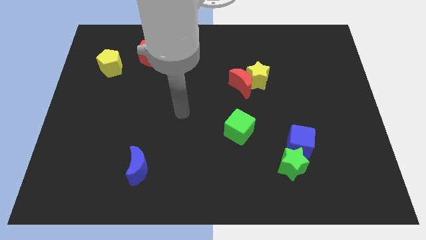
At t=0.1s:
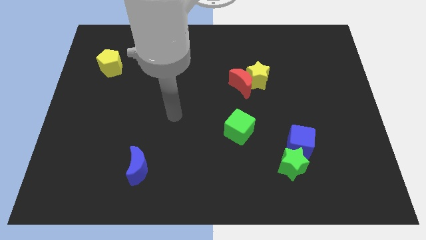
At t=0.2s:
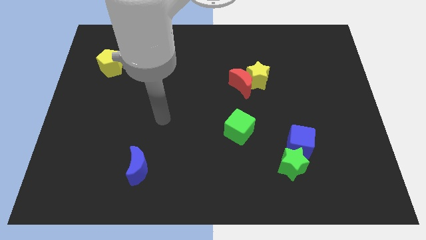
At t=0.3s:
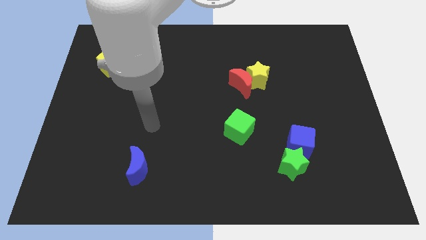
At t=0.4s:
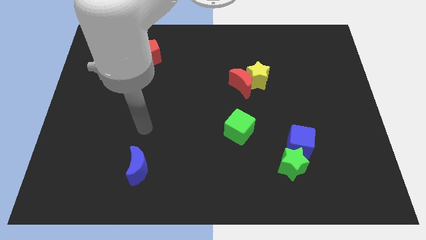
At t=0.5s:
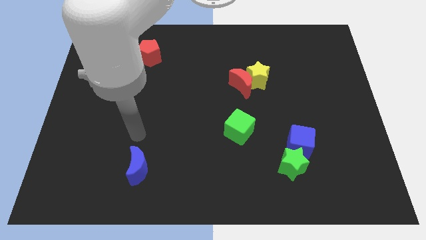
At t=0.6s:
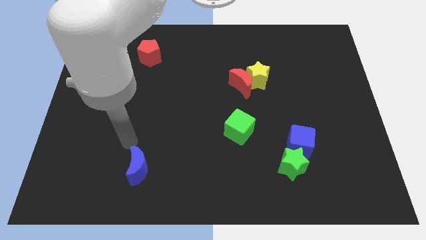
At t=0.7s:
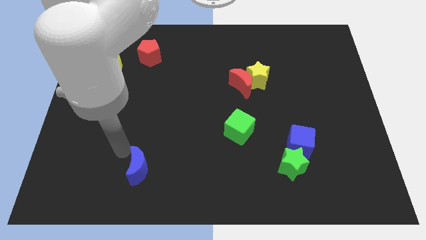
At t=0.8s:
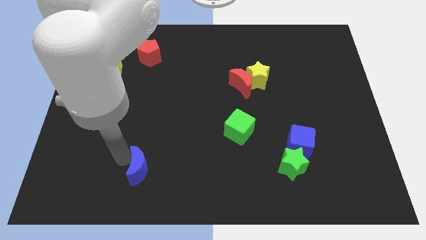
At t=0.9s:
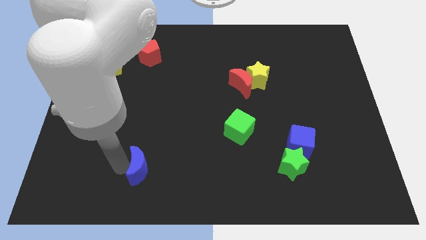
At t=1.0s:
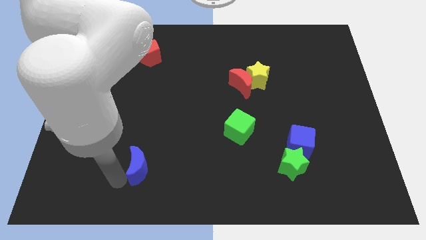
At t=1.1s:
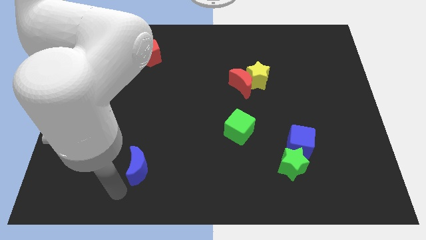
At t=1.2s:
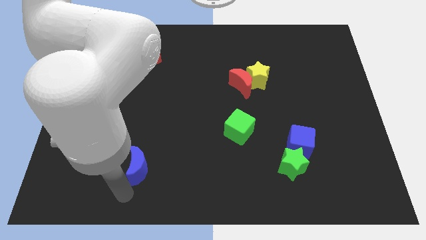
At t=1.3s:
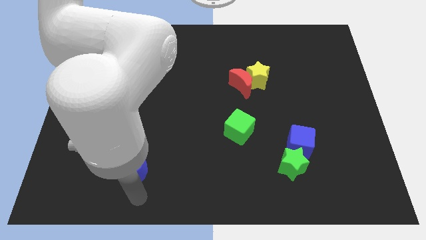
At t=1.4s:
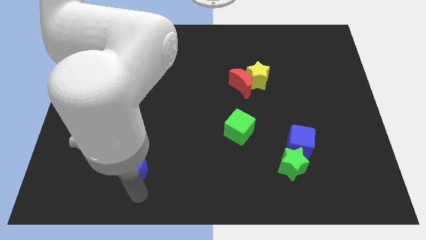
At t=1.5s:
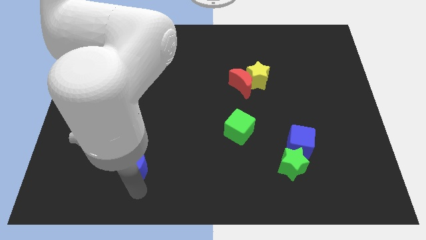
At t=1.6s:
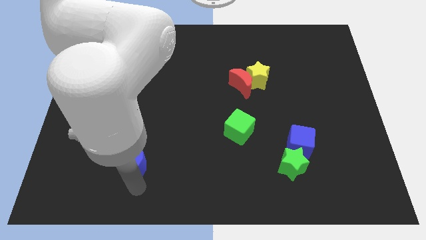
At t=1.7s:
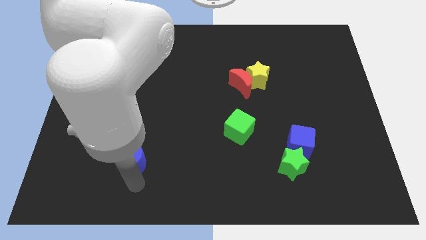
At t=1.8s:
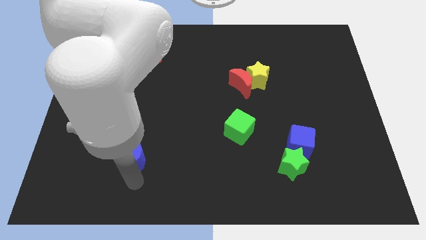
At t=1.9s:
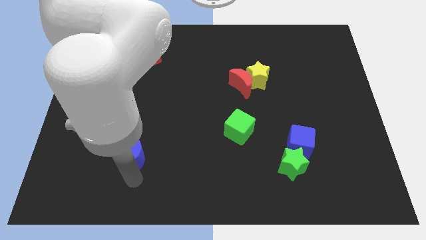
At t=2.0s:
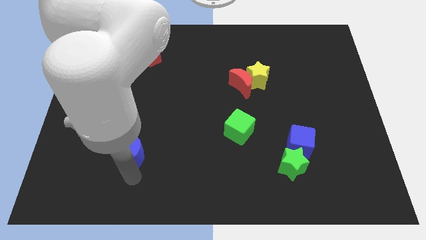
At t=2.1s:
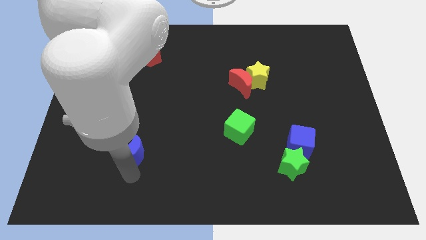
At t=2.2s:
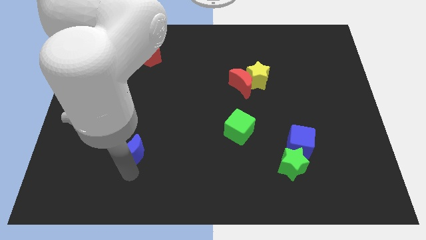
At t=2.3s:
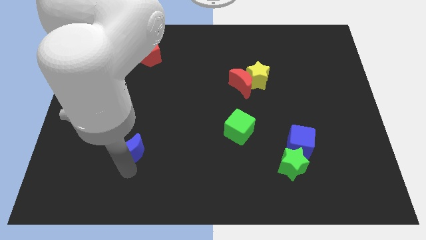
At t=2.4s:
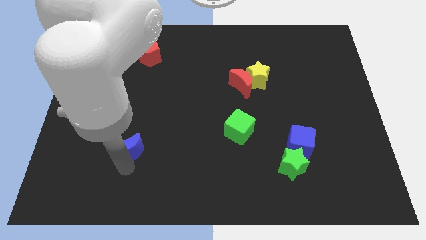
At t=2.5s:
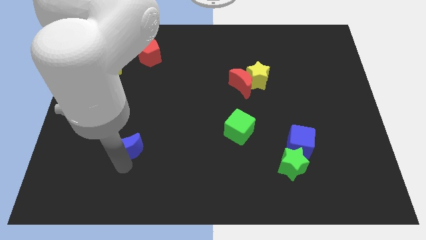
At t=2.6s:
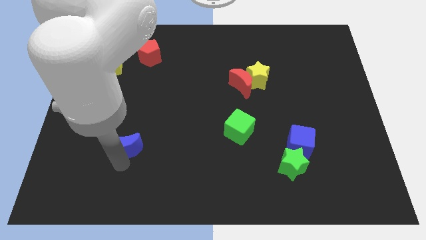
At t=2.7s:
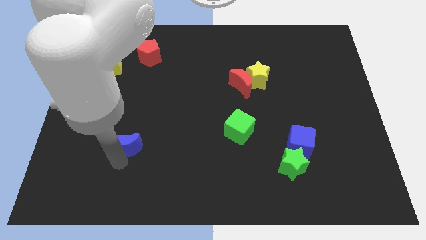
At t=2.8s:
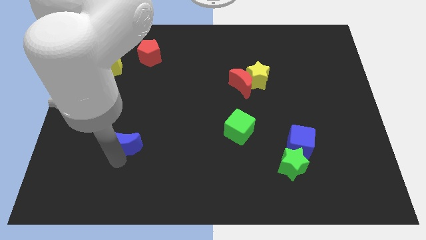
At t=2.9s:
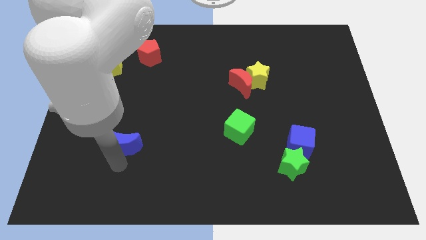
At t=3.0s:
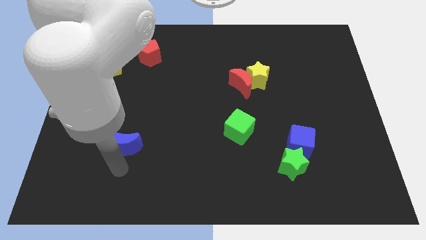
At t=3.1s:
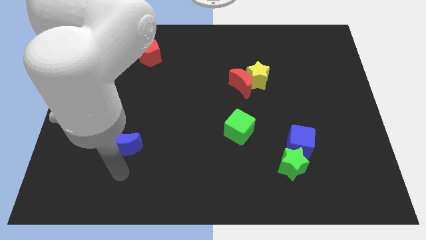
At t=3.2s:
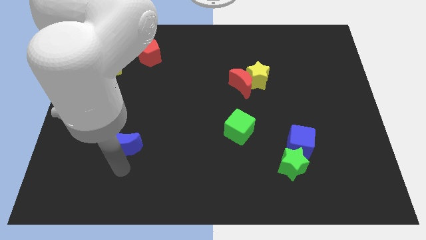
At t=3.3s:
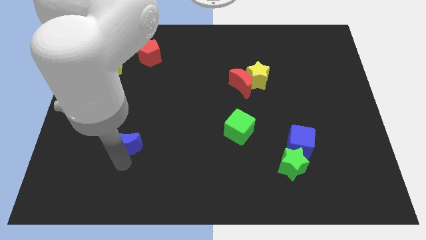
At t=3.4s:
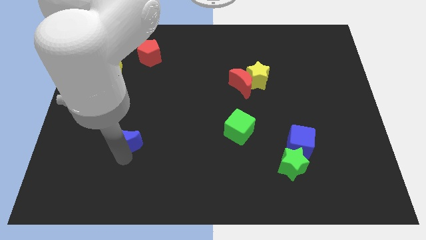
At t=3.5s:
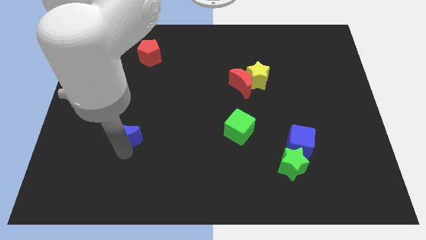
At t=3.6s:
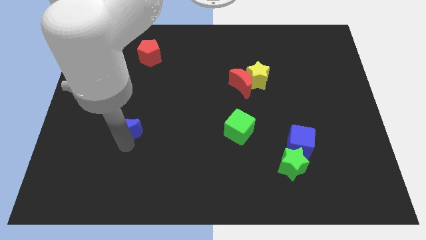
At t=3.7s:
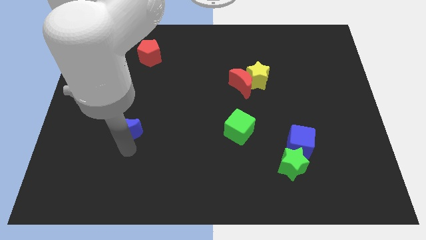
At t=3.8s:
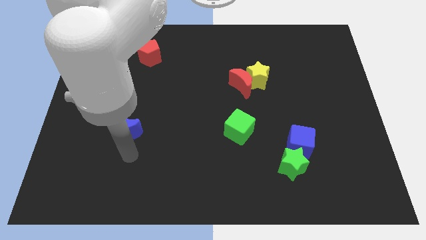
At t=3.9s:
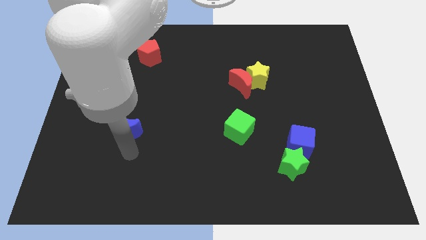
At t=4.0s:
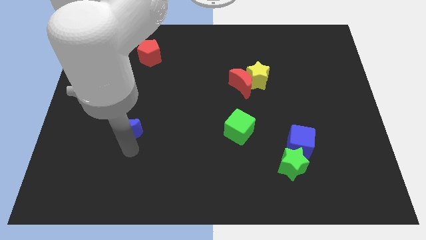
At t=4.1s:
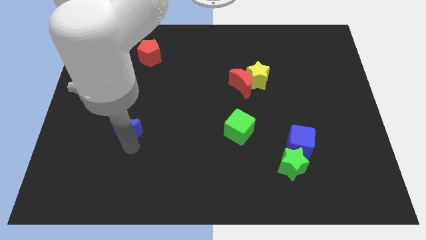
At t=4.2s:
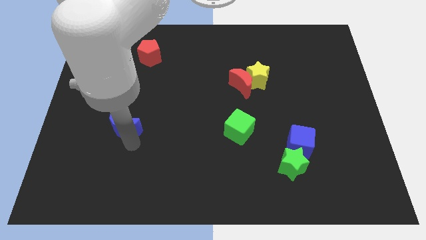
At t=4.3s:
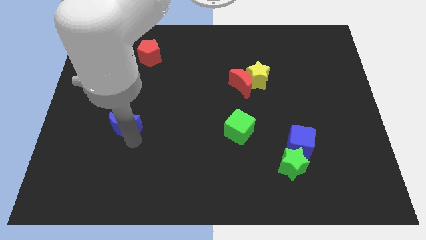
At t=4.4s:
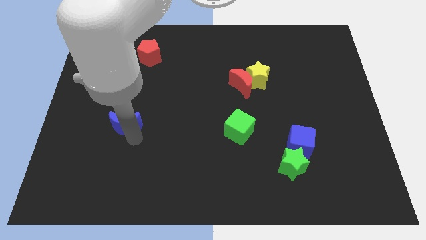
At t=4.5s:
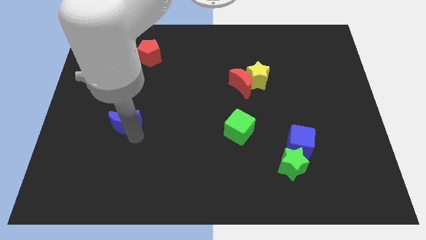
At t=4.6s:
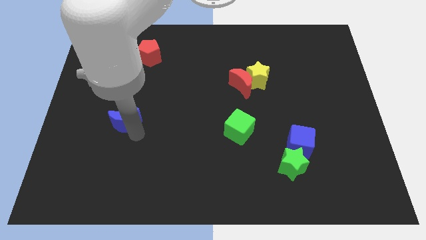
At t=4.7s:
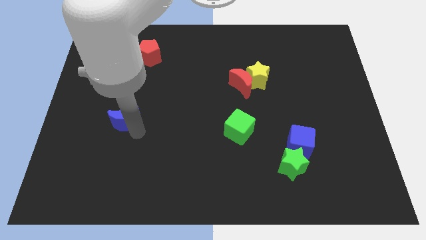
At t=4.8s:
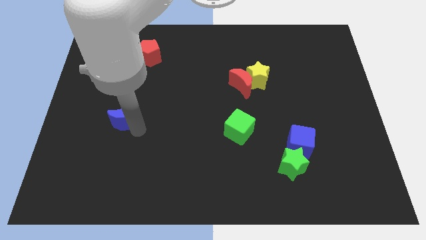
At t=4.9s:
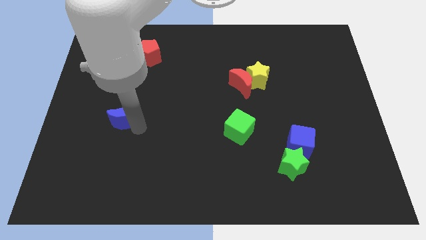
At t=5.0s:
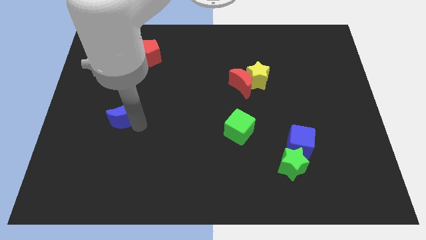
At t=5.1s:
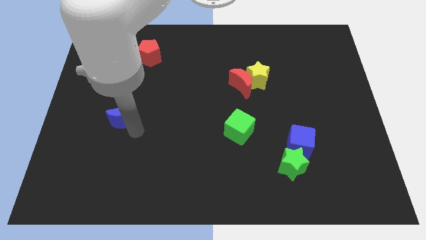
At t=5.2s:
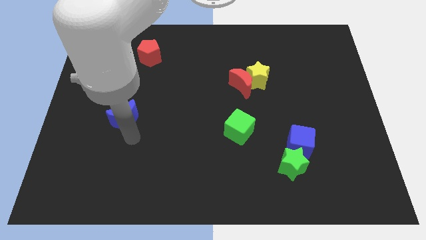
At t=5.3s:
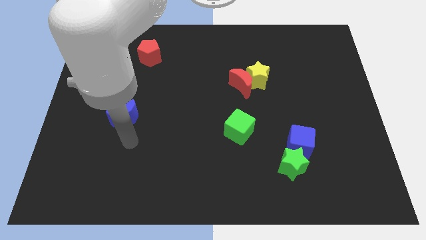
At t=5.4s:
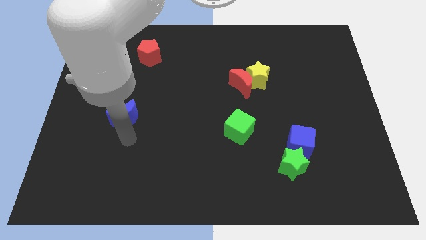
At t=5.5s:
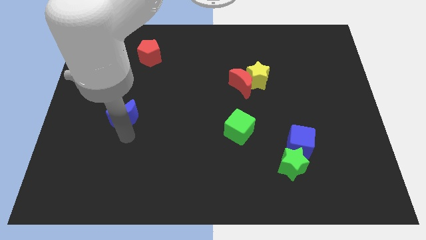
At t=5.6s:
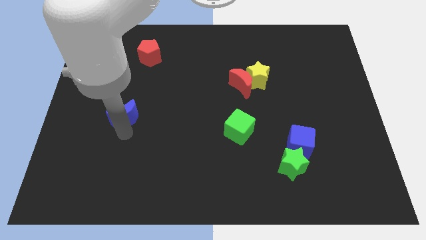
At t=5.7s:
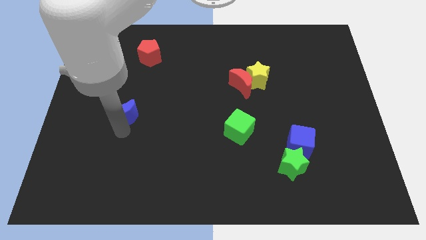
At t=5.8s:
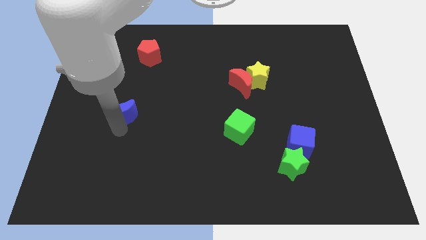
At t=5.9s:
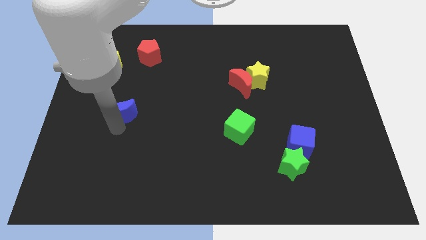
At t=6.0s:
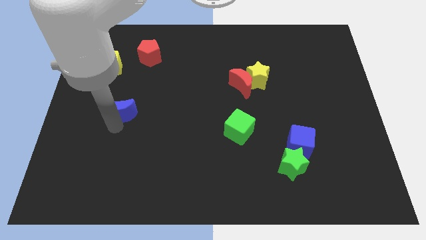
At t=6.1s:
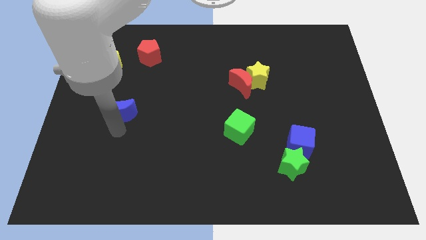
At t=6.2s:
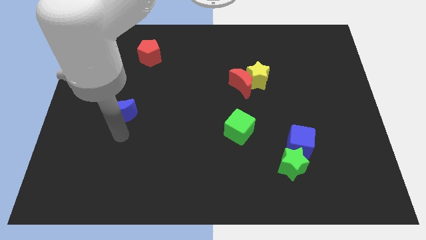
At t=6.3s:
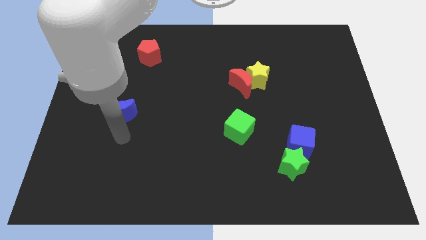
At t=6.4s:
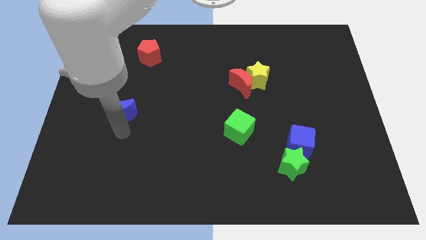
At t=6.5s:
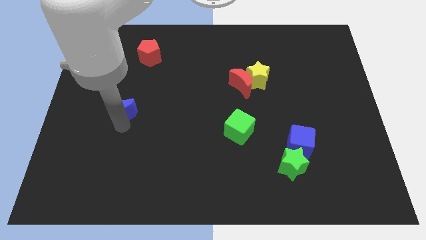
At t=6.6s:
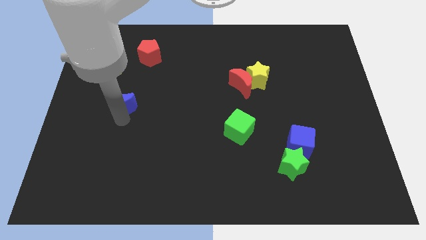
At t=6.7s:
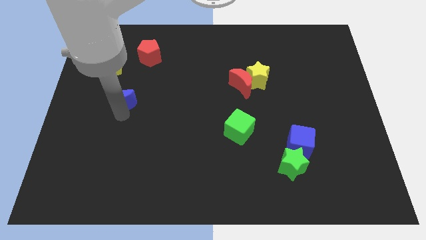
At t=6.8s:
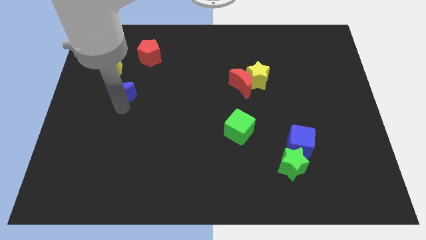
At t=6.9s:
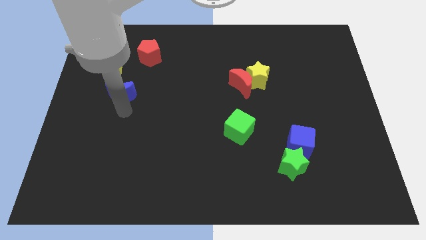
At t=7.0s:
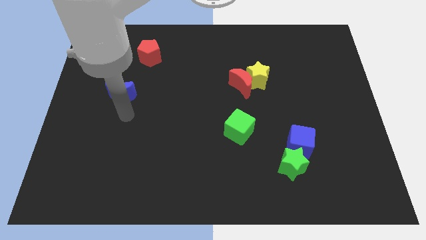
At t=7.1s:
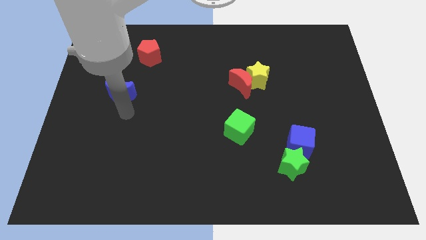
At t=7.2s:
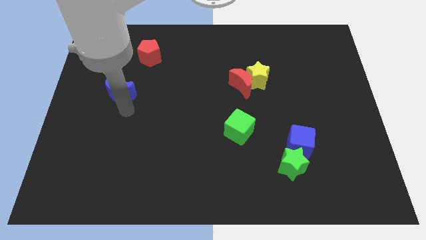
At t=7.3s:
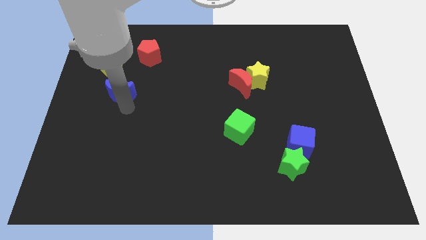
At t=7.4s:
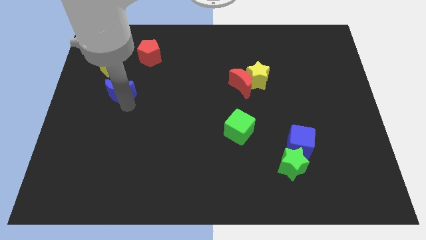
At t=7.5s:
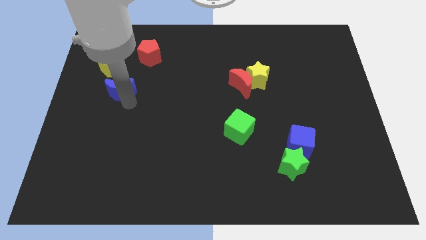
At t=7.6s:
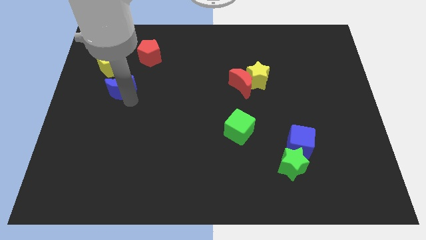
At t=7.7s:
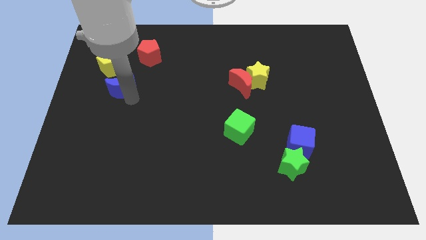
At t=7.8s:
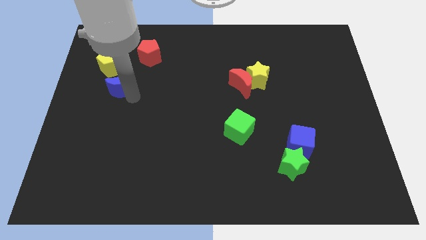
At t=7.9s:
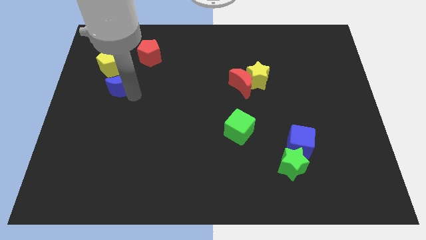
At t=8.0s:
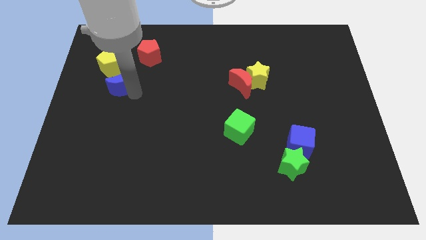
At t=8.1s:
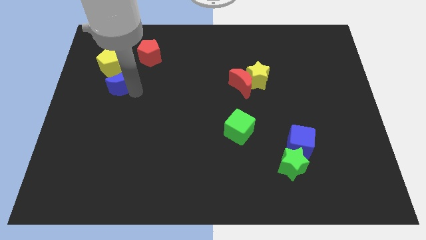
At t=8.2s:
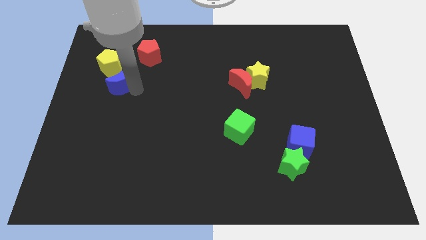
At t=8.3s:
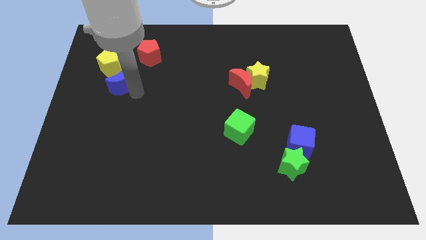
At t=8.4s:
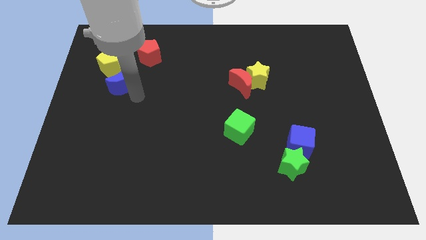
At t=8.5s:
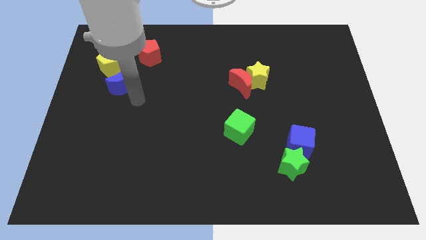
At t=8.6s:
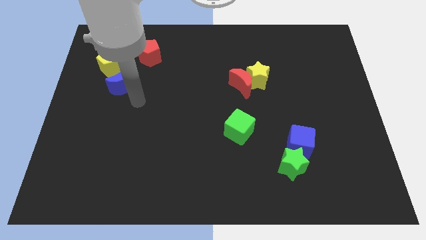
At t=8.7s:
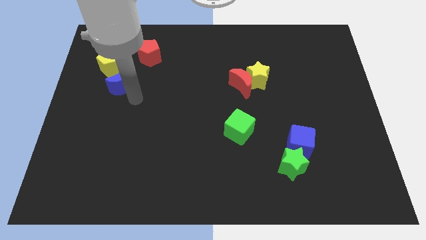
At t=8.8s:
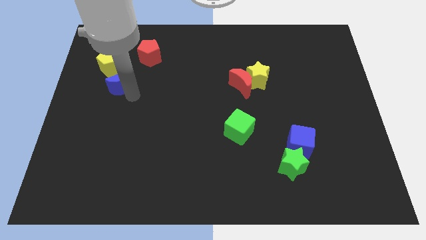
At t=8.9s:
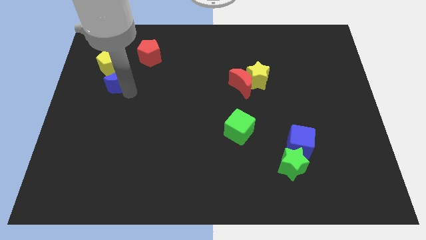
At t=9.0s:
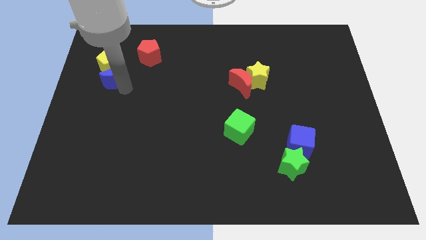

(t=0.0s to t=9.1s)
move the blue moon close to the yellow pentagon
